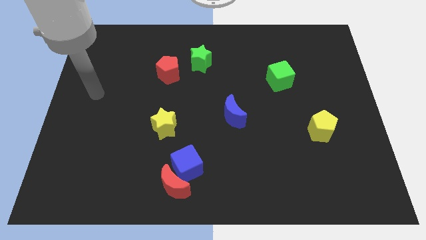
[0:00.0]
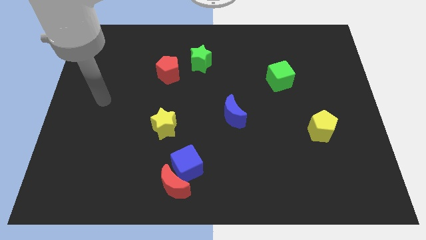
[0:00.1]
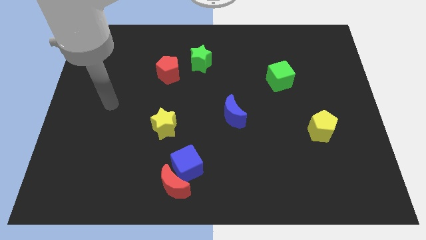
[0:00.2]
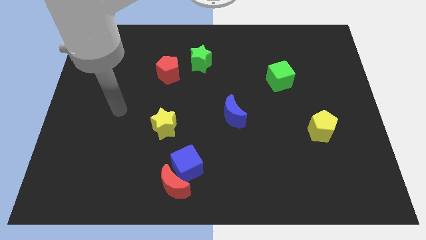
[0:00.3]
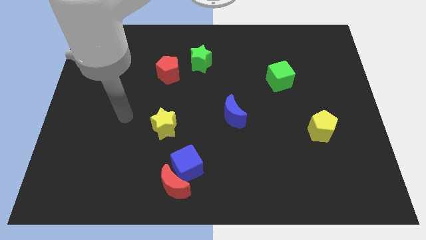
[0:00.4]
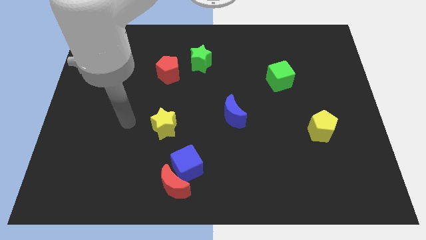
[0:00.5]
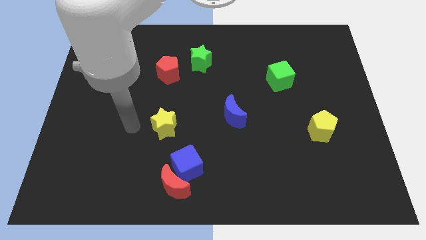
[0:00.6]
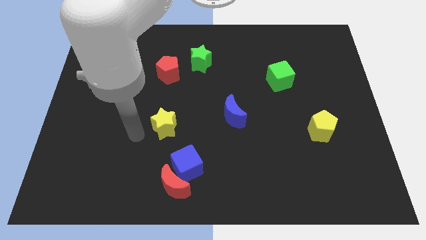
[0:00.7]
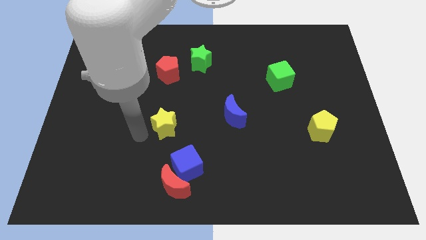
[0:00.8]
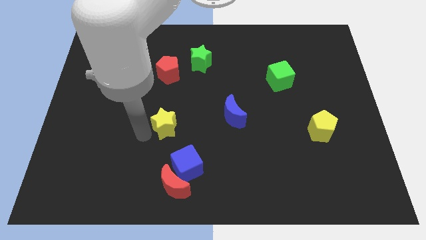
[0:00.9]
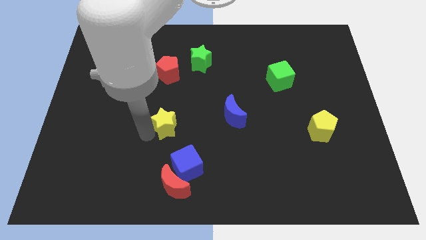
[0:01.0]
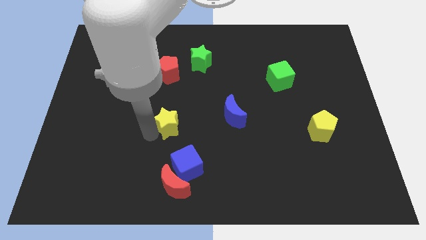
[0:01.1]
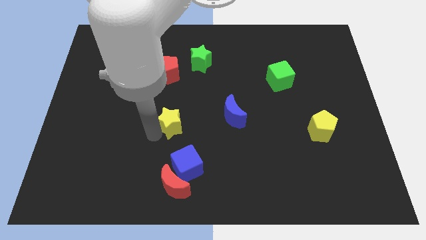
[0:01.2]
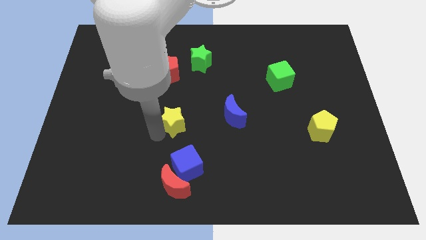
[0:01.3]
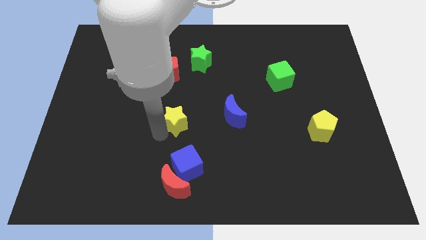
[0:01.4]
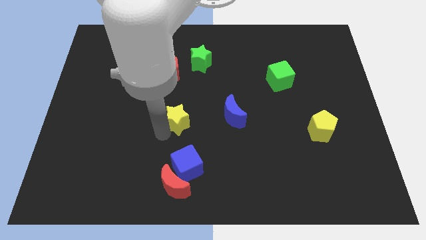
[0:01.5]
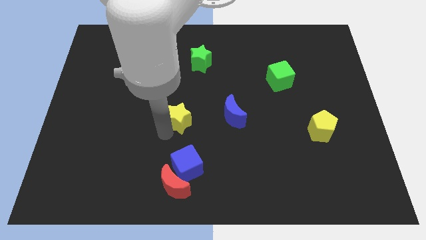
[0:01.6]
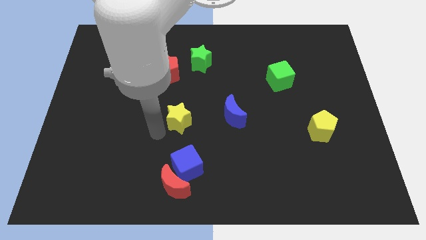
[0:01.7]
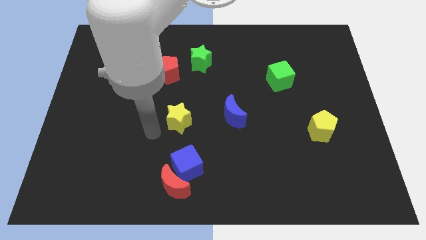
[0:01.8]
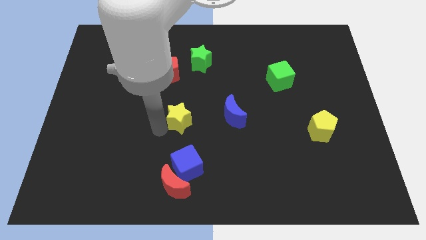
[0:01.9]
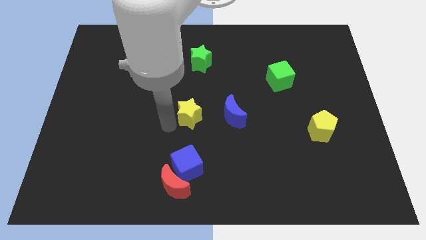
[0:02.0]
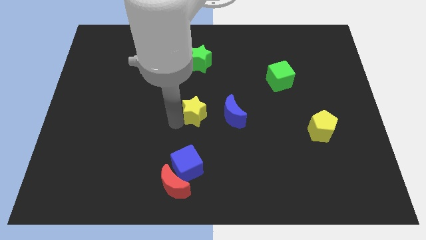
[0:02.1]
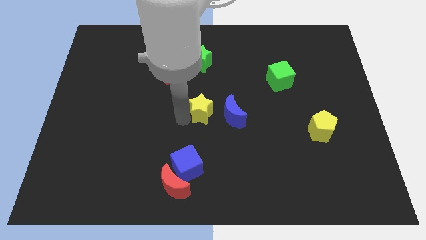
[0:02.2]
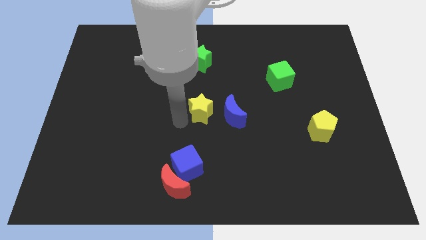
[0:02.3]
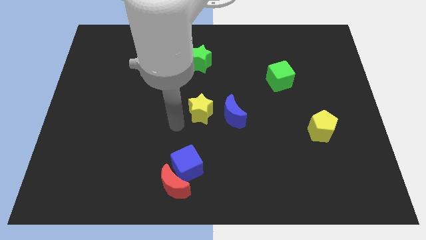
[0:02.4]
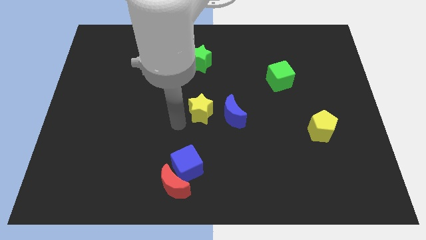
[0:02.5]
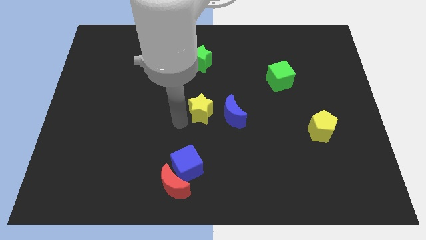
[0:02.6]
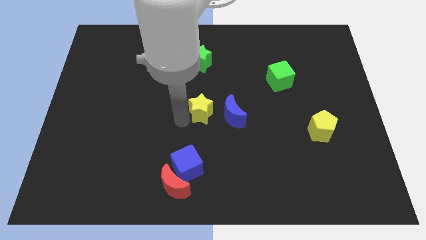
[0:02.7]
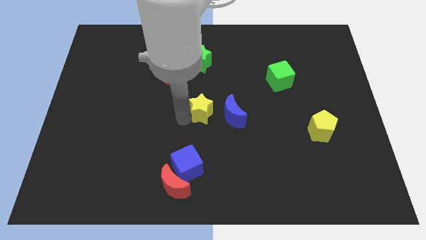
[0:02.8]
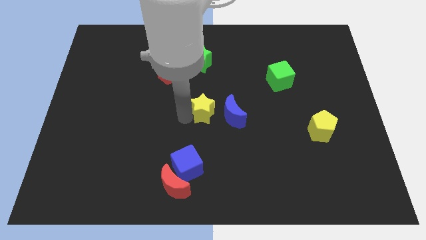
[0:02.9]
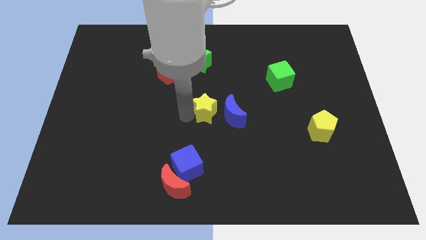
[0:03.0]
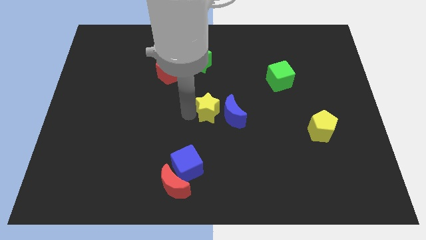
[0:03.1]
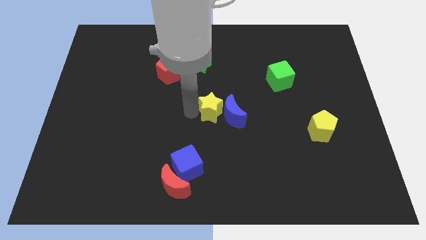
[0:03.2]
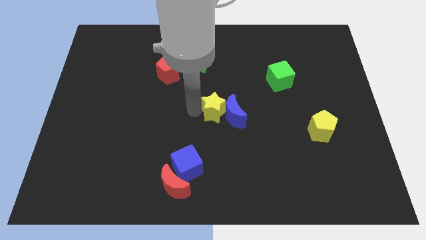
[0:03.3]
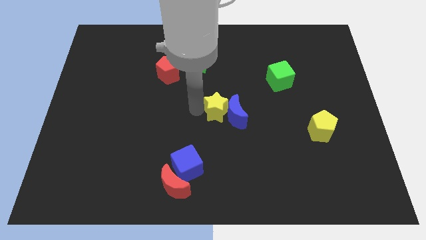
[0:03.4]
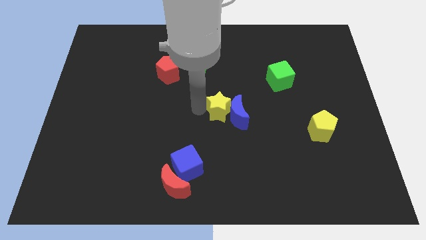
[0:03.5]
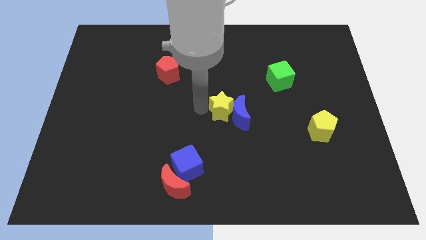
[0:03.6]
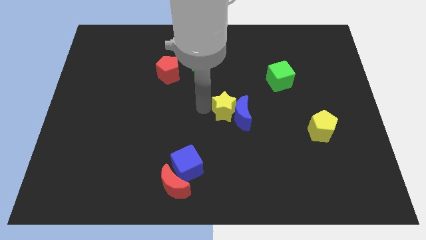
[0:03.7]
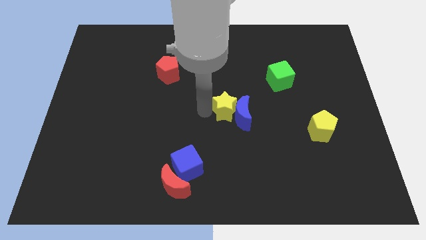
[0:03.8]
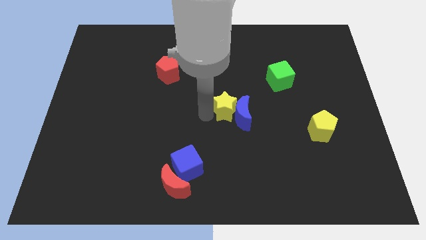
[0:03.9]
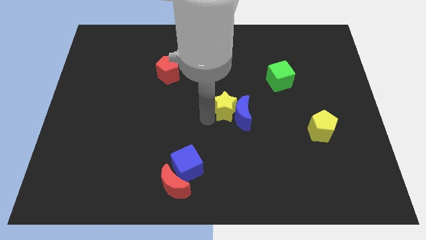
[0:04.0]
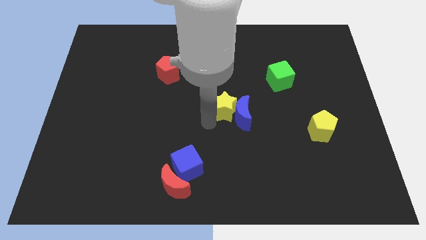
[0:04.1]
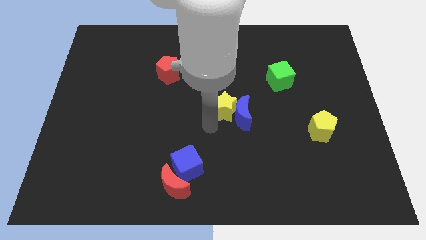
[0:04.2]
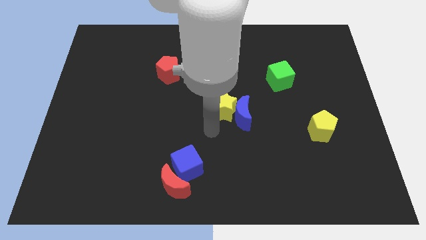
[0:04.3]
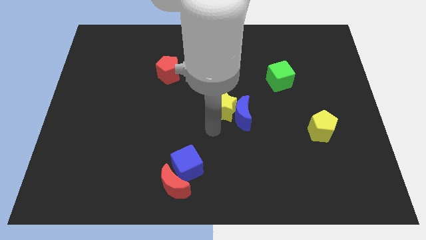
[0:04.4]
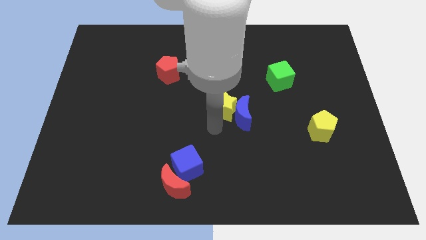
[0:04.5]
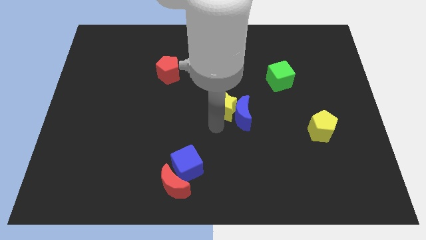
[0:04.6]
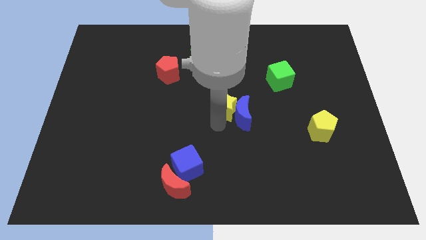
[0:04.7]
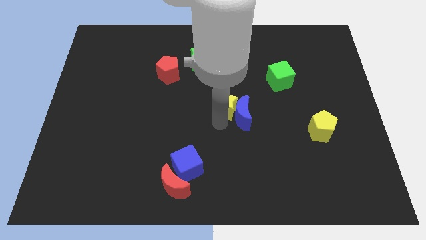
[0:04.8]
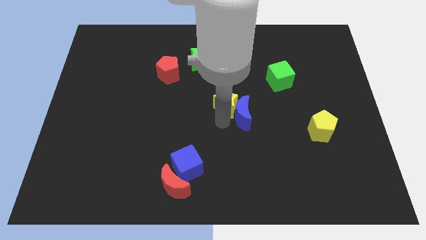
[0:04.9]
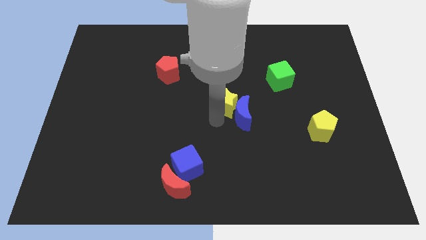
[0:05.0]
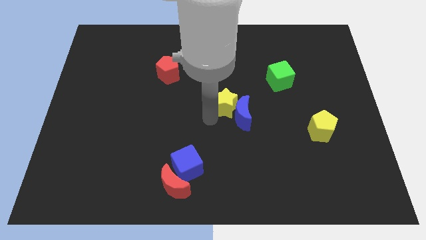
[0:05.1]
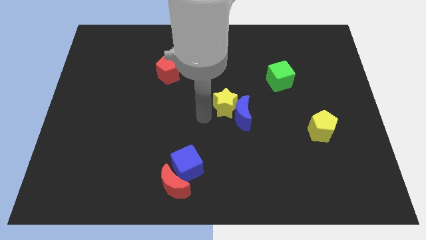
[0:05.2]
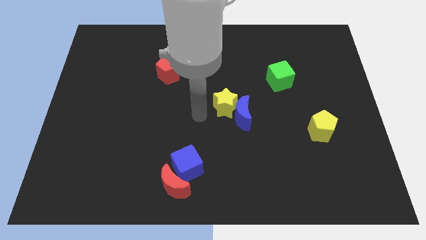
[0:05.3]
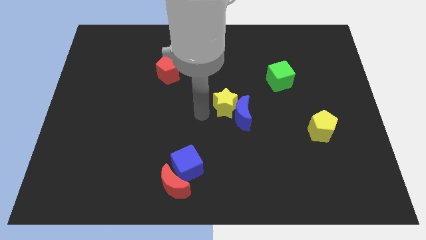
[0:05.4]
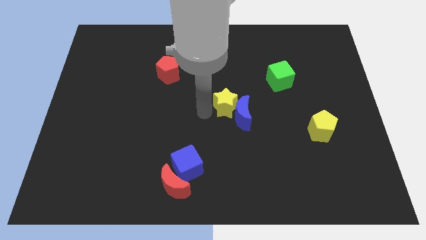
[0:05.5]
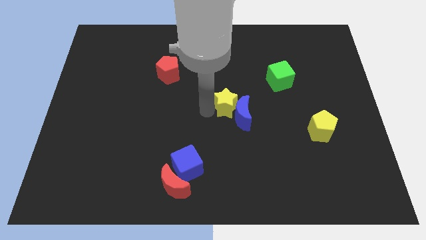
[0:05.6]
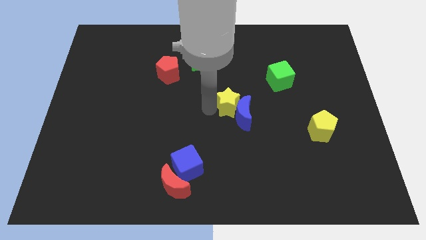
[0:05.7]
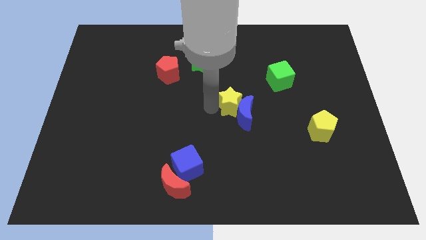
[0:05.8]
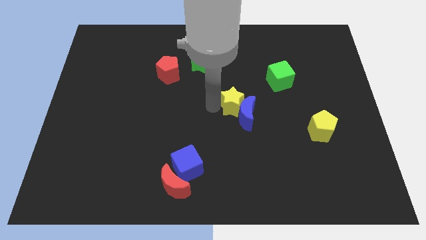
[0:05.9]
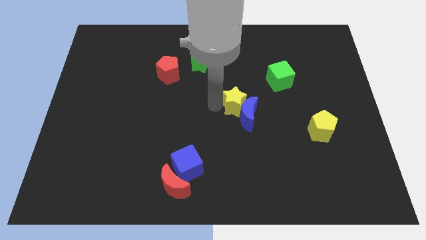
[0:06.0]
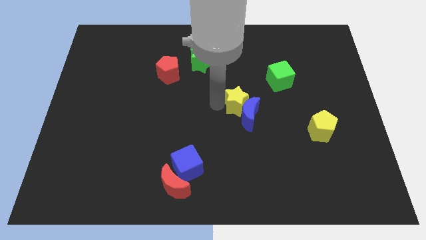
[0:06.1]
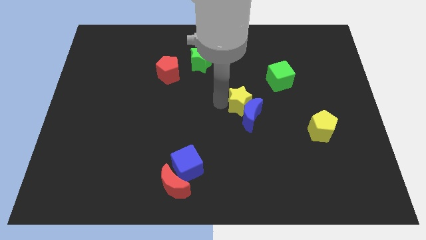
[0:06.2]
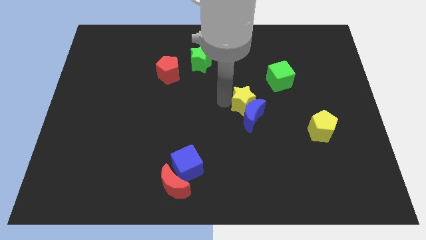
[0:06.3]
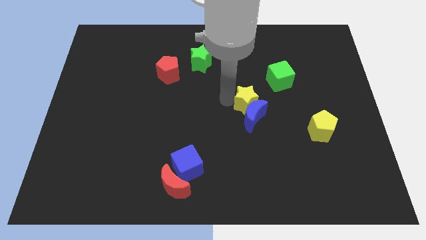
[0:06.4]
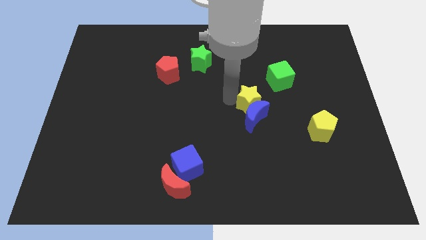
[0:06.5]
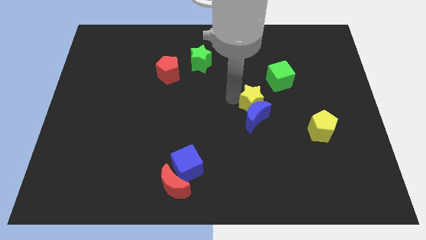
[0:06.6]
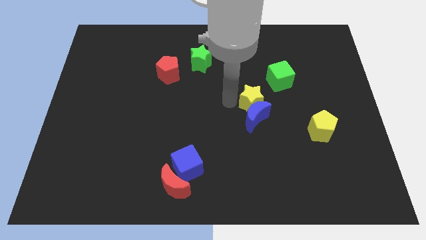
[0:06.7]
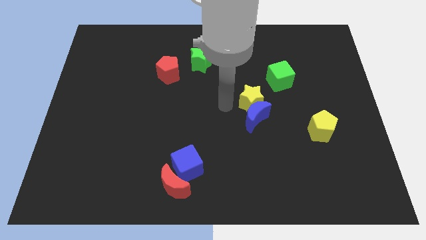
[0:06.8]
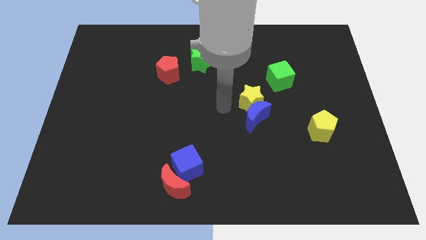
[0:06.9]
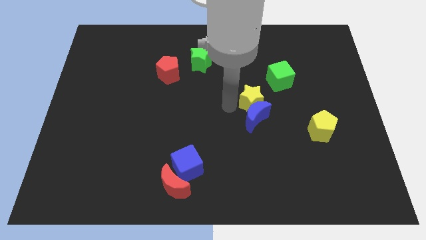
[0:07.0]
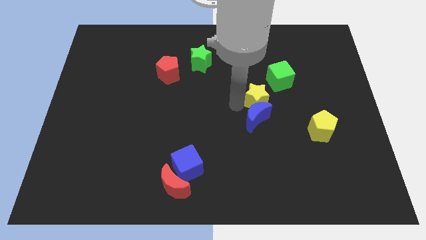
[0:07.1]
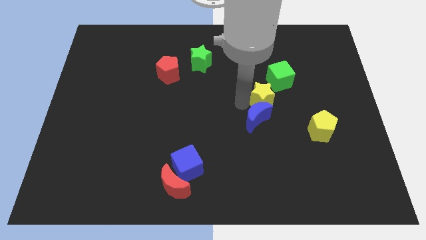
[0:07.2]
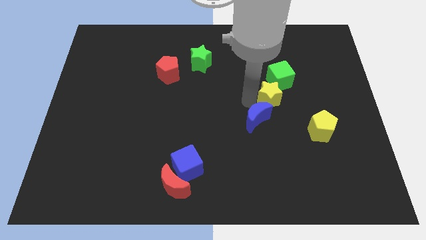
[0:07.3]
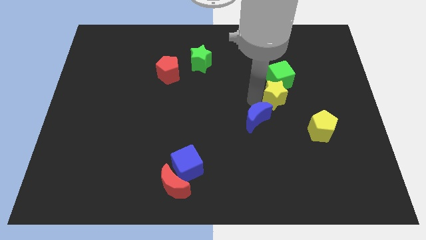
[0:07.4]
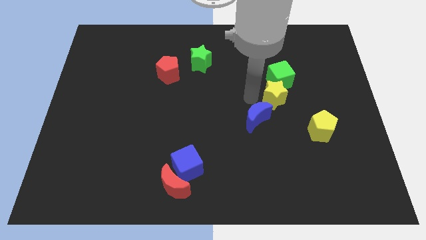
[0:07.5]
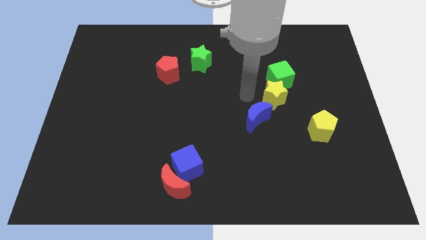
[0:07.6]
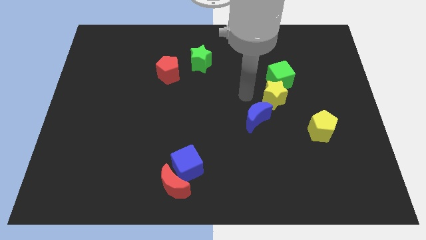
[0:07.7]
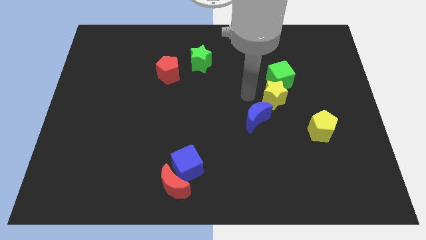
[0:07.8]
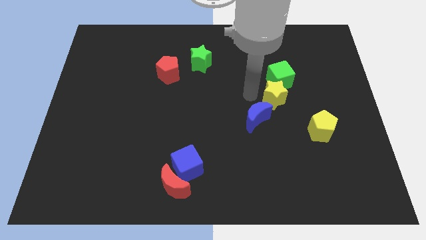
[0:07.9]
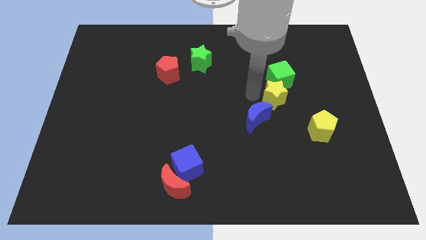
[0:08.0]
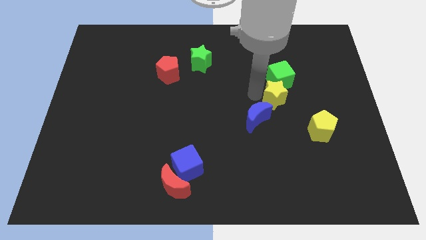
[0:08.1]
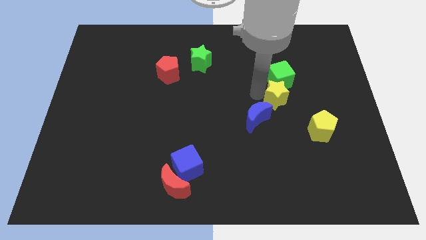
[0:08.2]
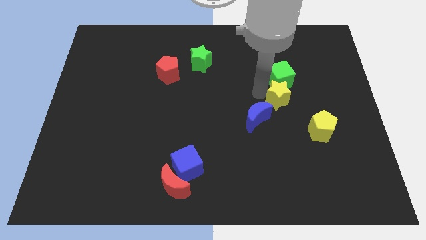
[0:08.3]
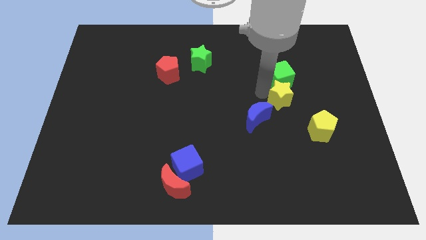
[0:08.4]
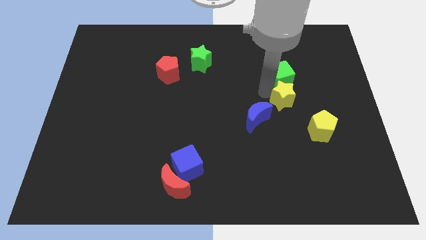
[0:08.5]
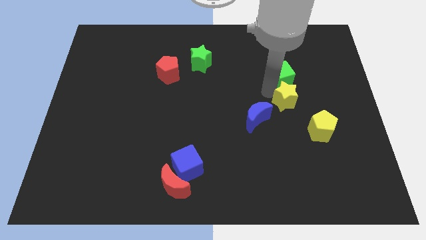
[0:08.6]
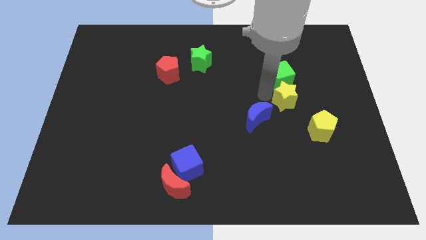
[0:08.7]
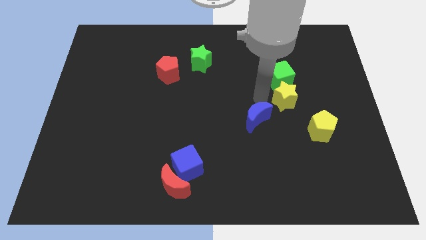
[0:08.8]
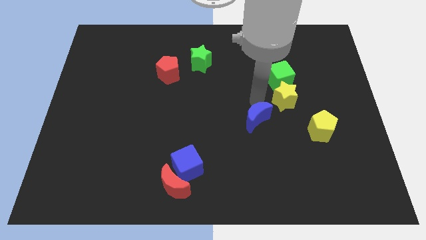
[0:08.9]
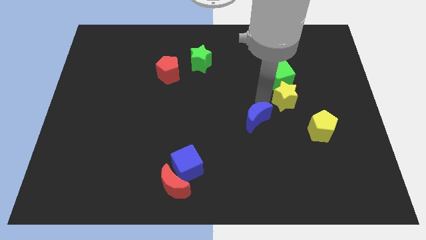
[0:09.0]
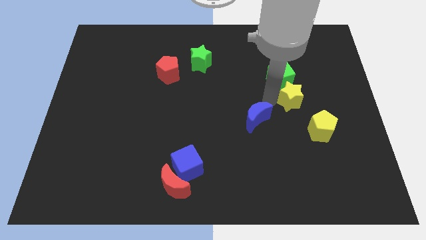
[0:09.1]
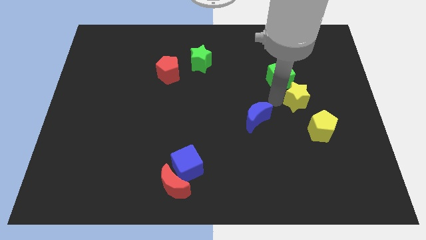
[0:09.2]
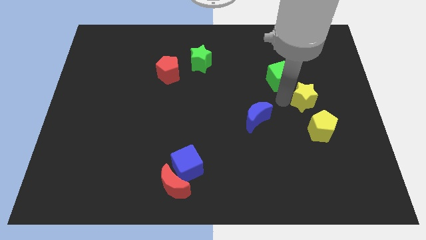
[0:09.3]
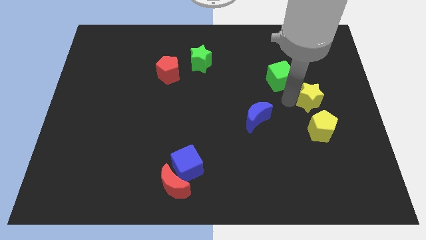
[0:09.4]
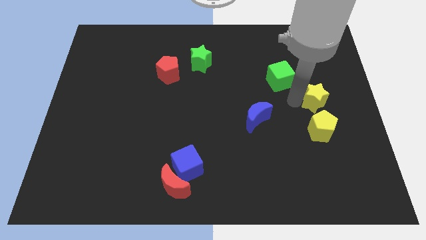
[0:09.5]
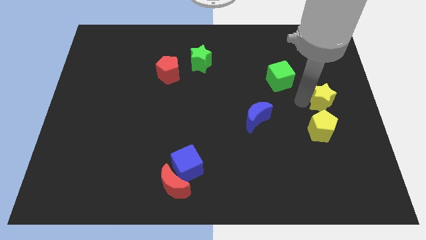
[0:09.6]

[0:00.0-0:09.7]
push the yellow star to the center right
